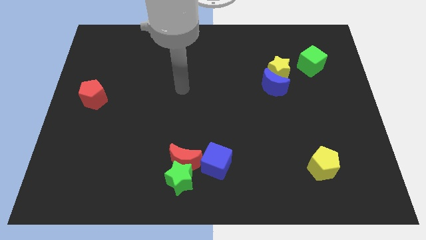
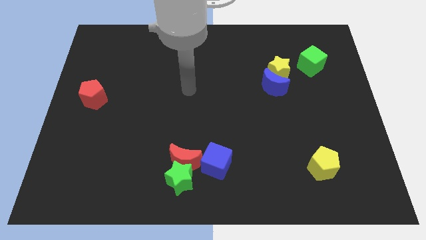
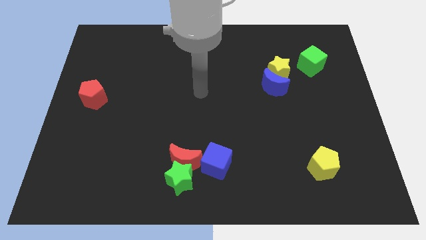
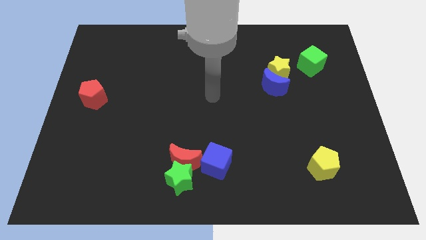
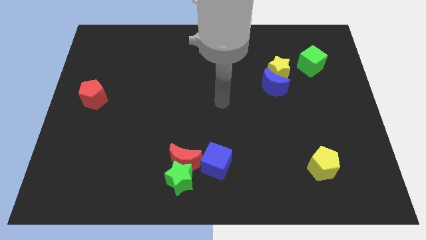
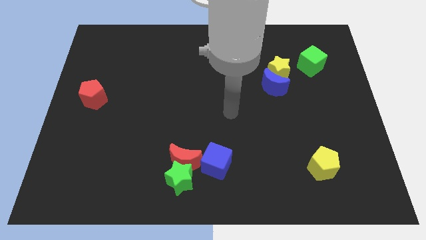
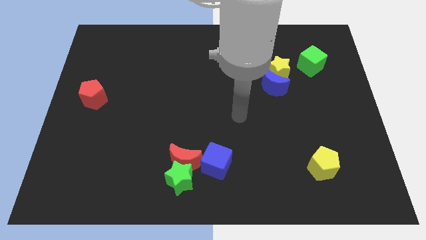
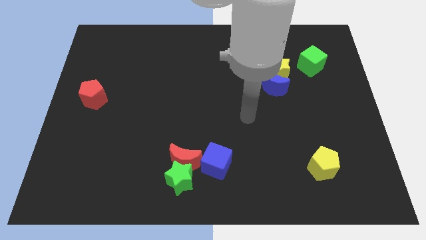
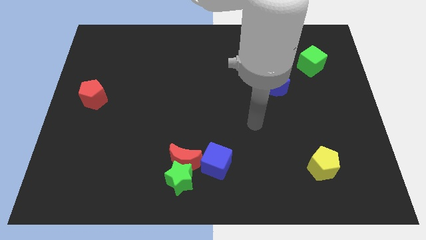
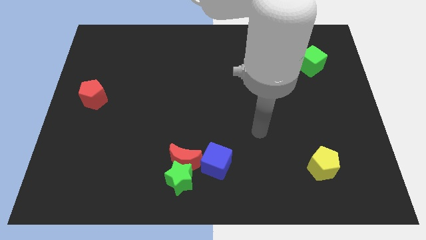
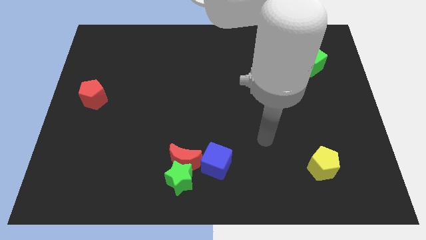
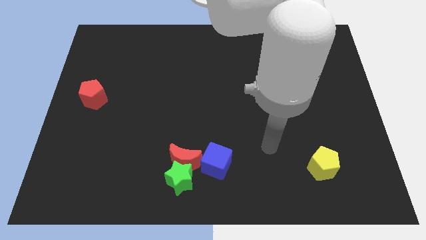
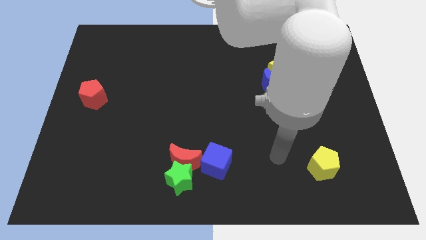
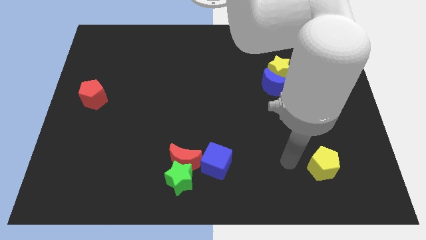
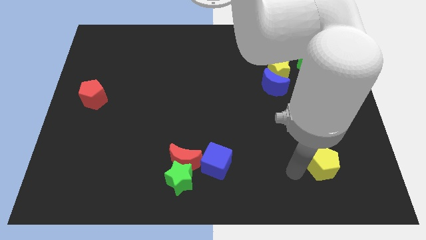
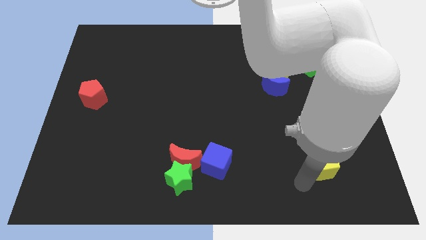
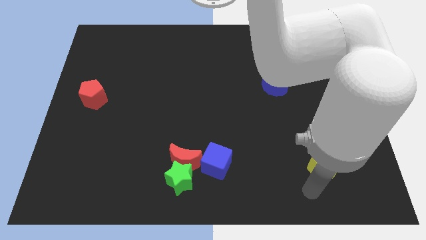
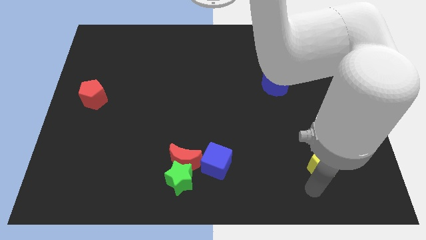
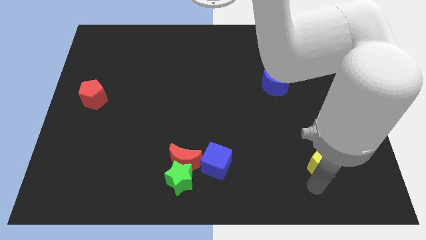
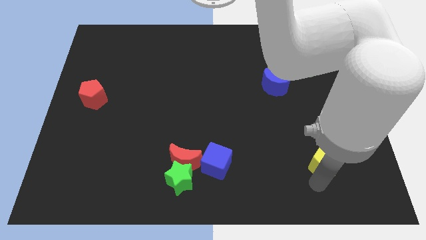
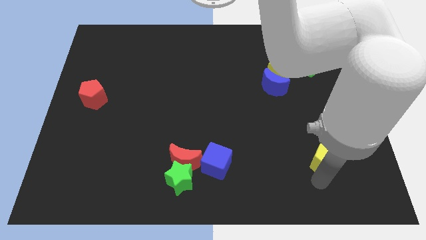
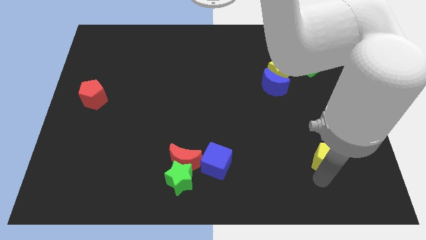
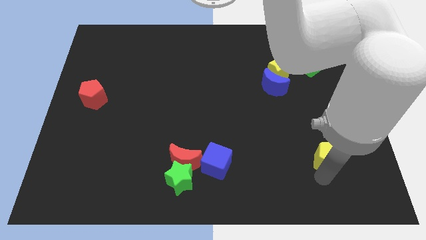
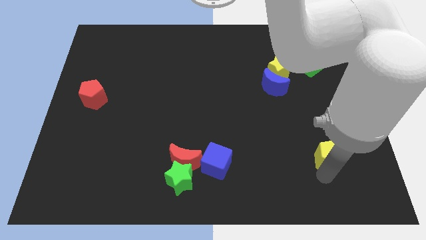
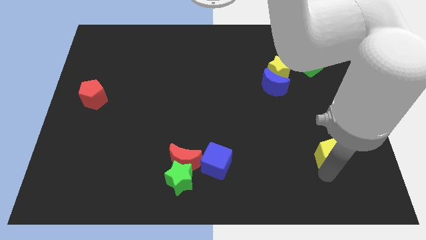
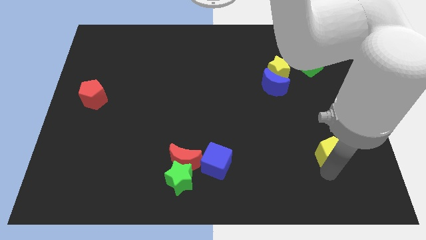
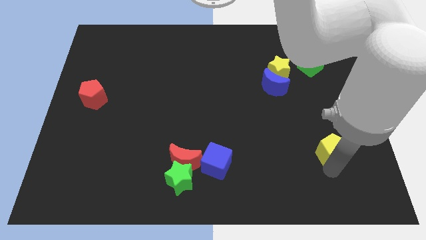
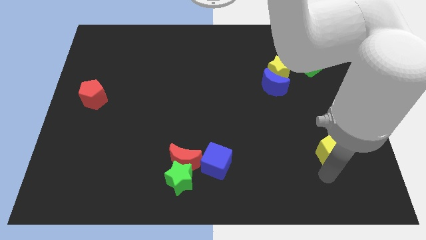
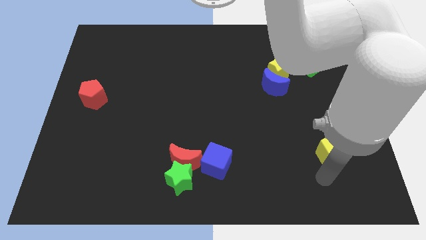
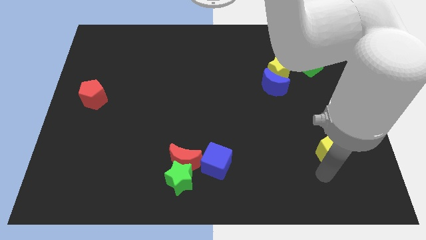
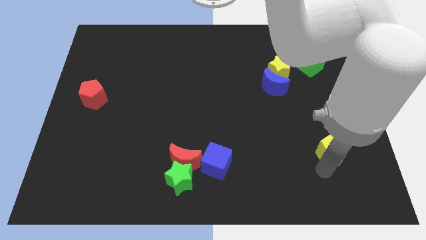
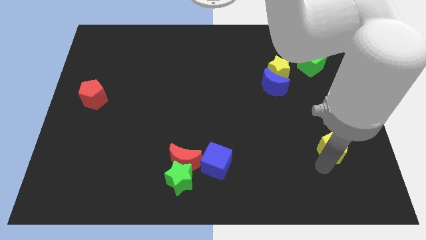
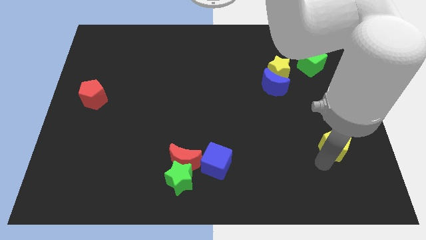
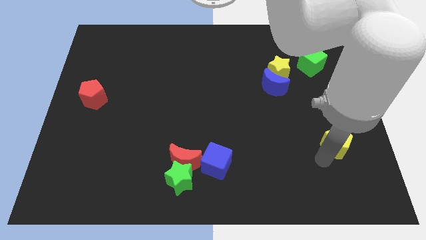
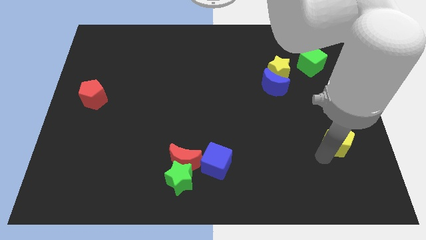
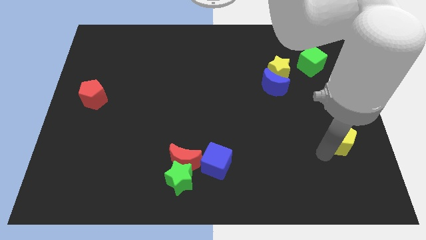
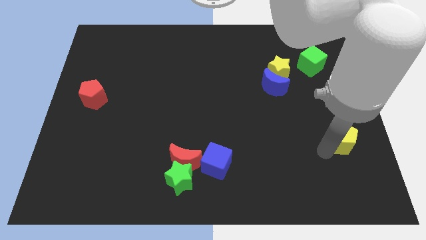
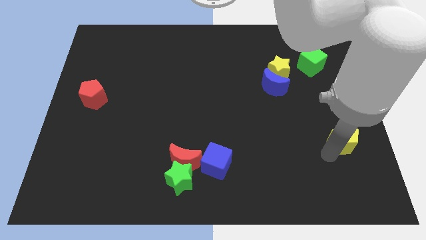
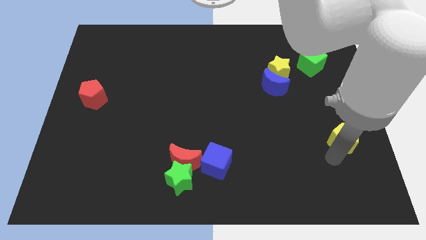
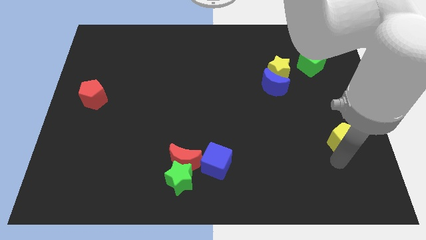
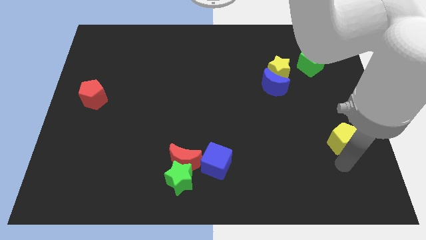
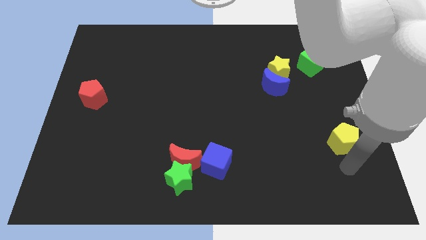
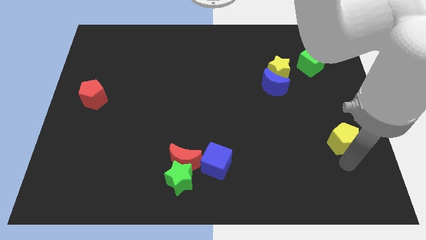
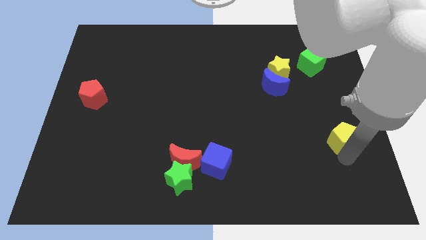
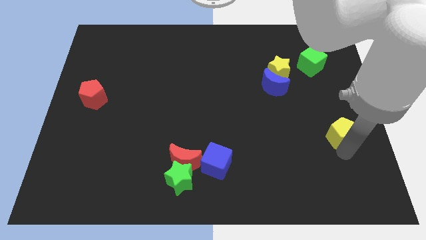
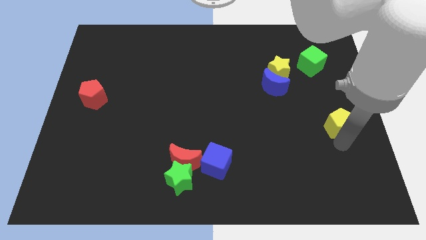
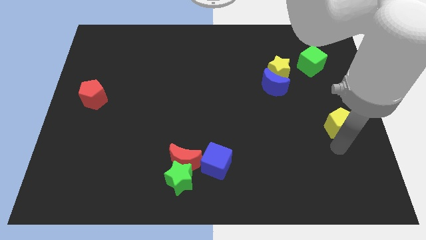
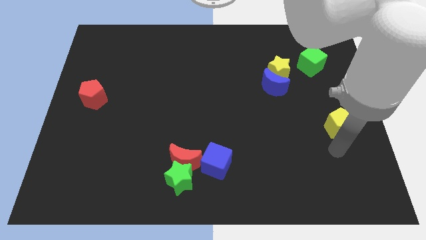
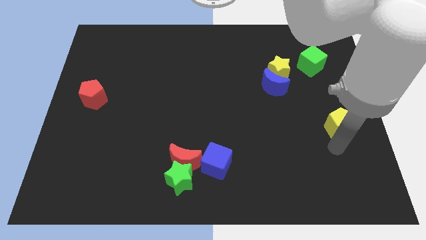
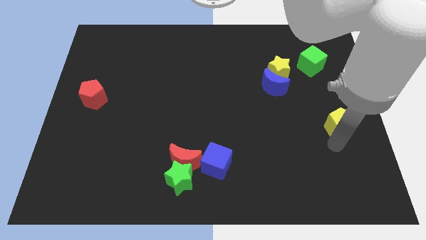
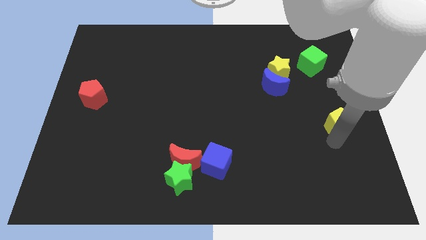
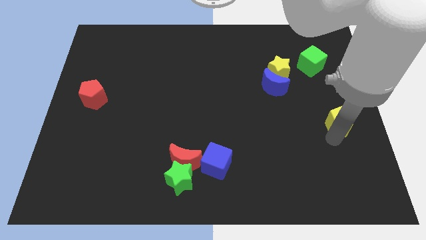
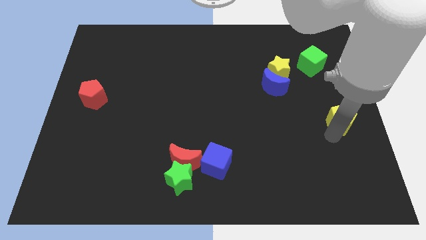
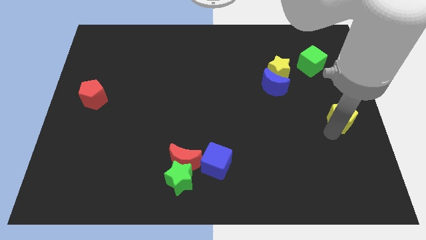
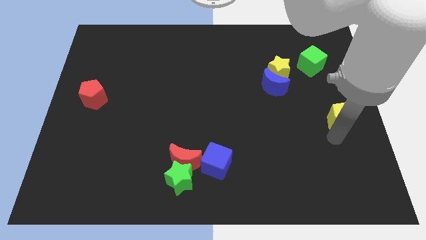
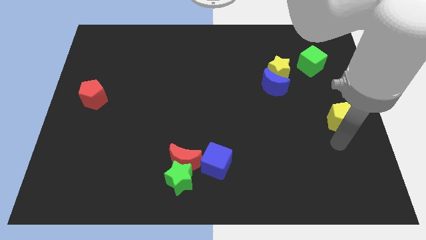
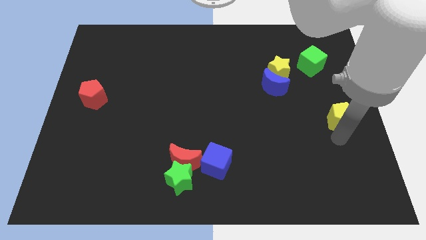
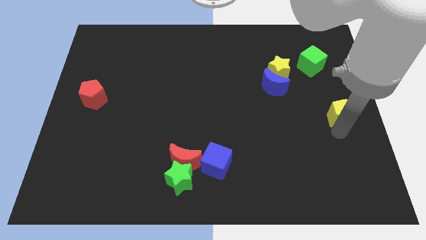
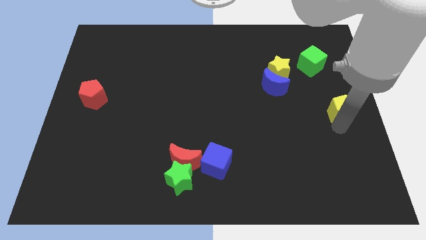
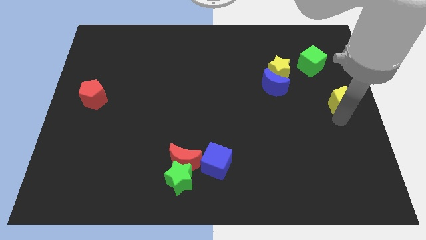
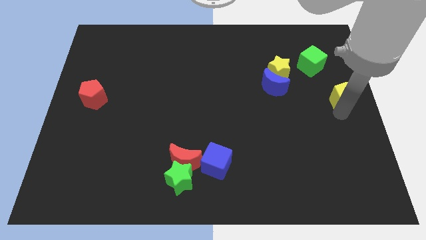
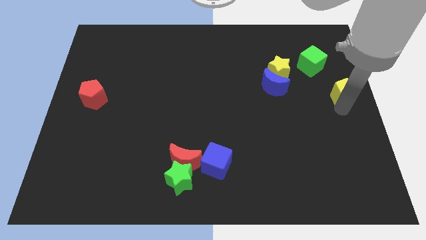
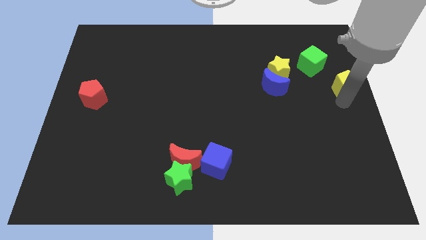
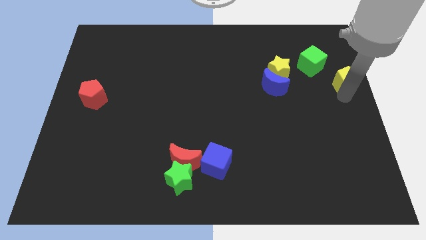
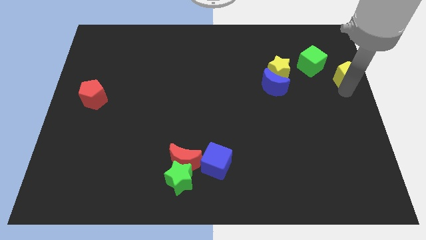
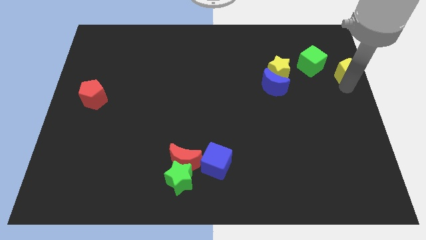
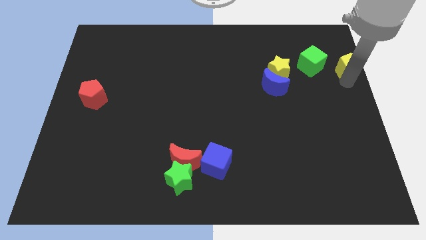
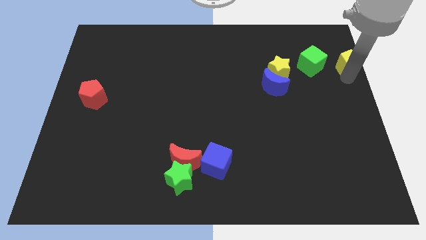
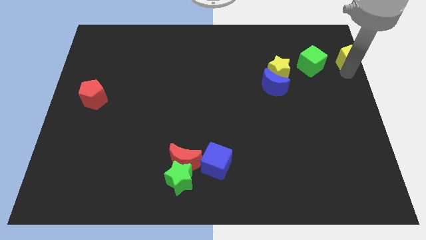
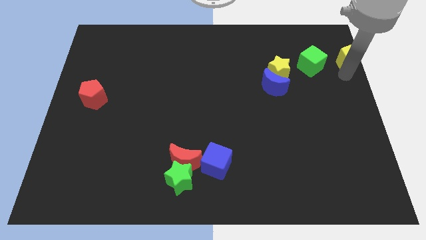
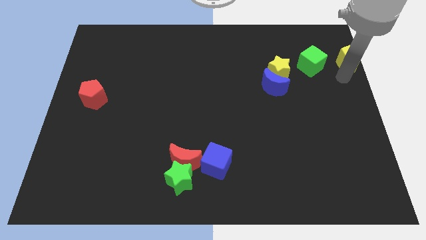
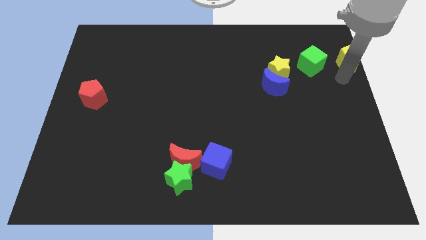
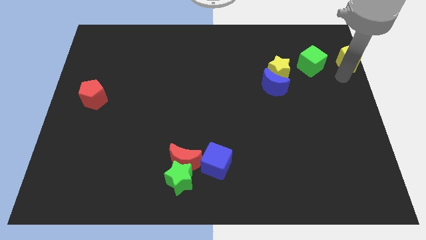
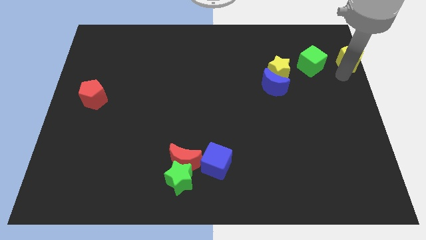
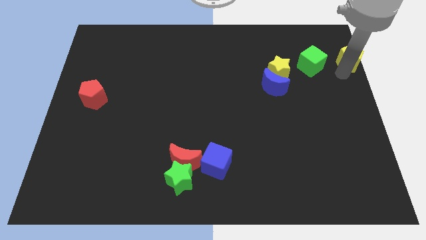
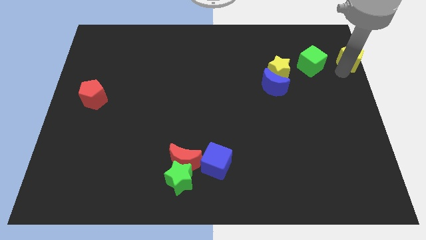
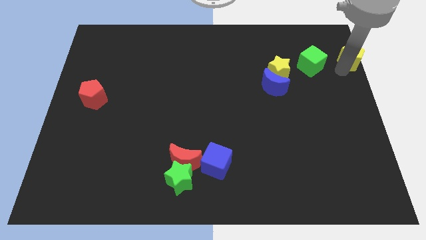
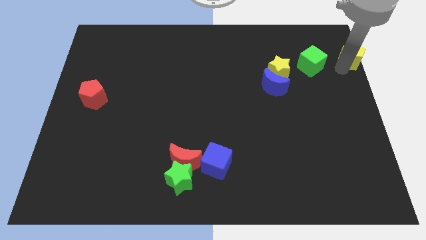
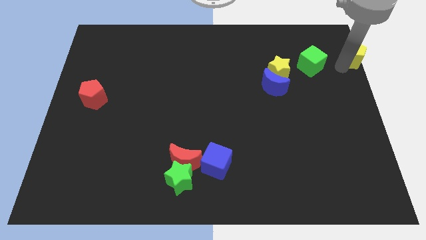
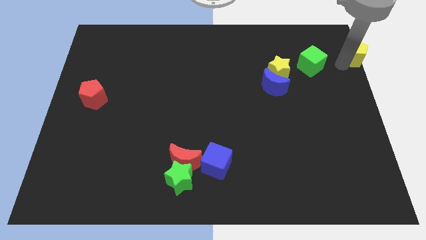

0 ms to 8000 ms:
slide the yellow pentagon to the upper right corner
